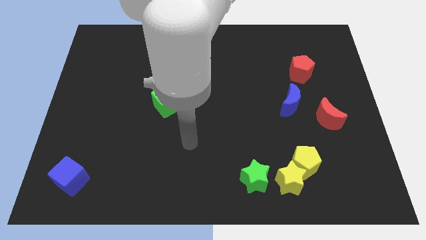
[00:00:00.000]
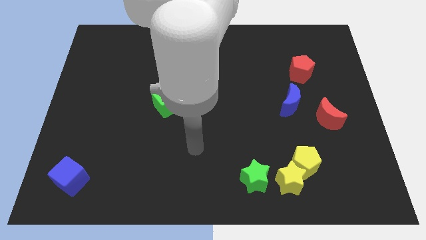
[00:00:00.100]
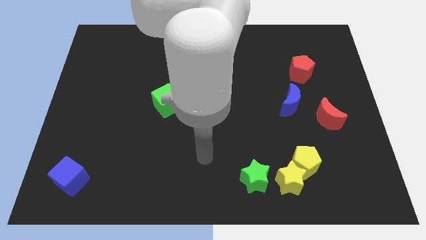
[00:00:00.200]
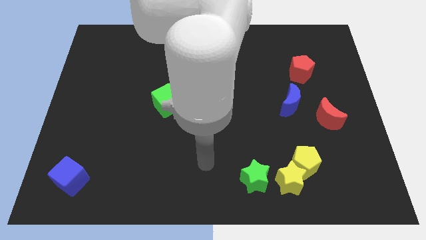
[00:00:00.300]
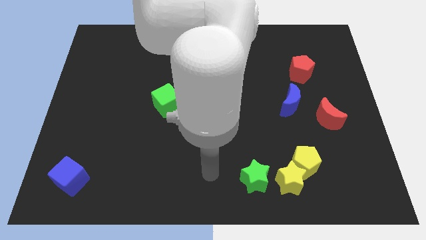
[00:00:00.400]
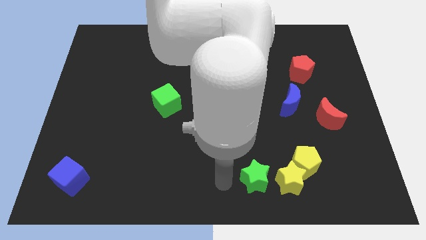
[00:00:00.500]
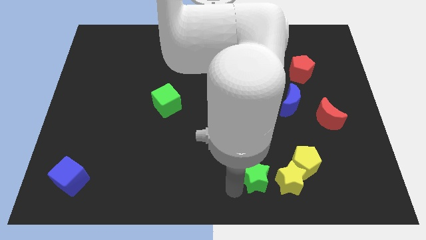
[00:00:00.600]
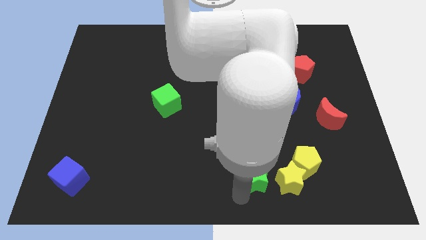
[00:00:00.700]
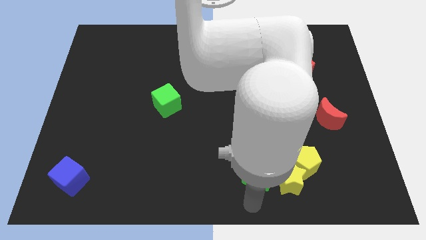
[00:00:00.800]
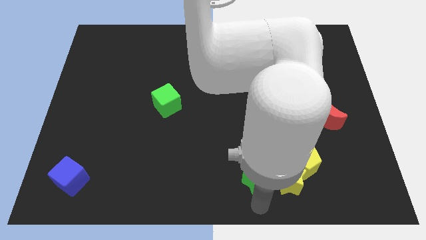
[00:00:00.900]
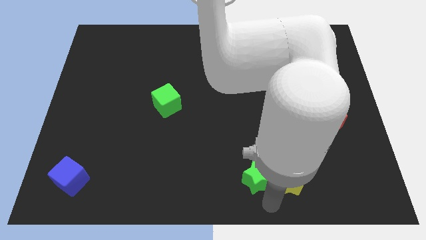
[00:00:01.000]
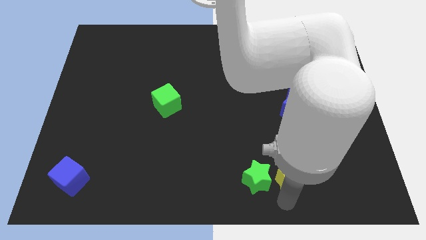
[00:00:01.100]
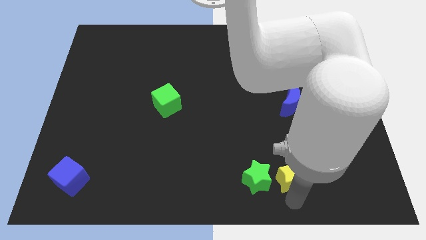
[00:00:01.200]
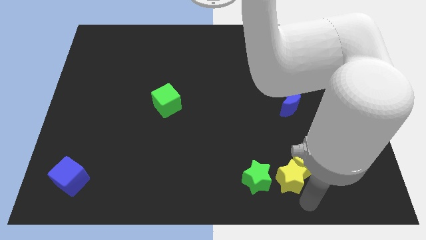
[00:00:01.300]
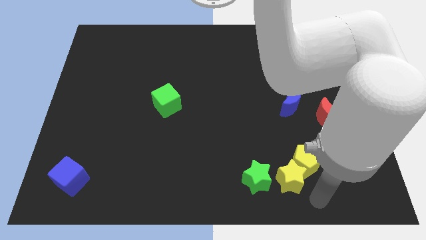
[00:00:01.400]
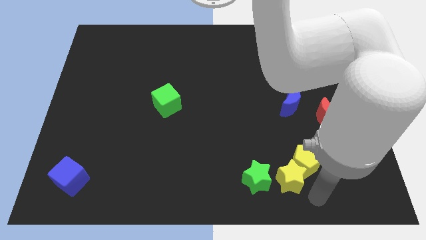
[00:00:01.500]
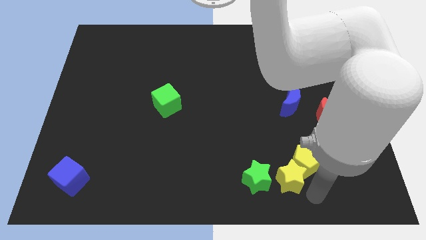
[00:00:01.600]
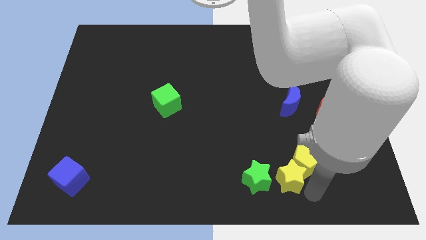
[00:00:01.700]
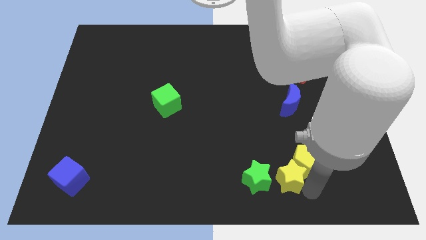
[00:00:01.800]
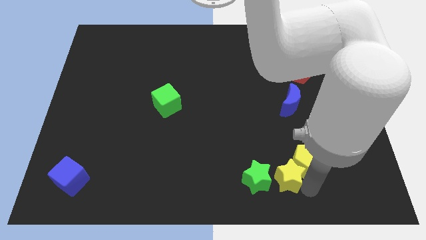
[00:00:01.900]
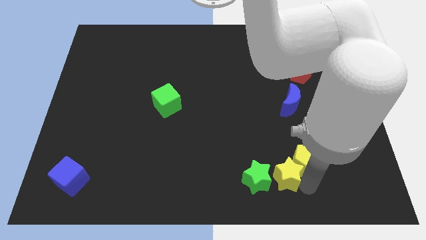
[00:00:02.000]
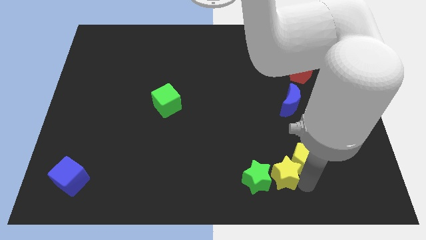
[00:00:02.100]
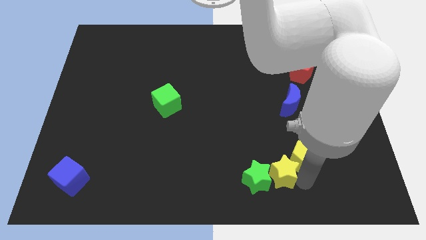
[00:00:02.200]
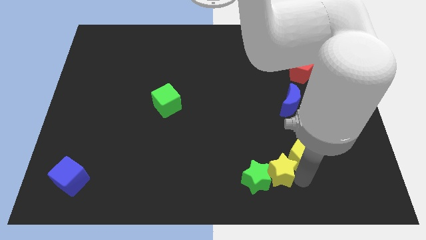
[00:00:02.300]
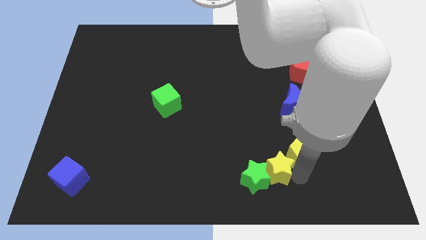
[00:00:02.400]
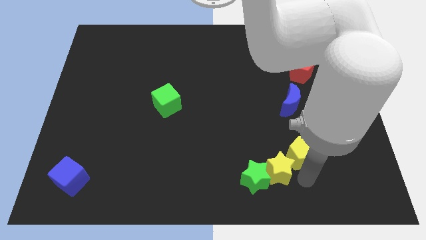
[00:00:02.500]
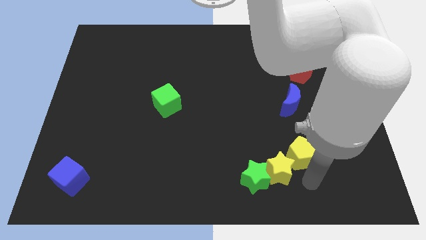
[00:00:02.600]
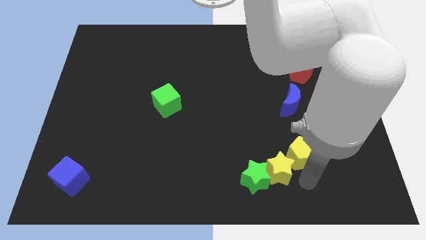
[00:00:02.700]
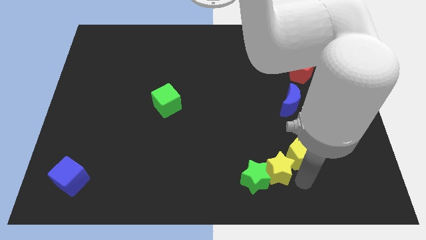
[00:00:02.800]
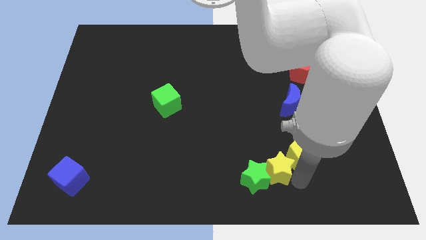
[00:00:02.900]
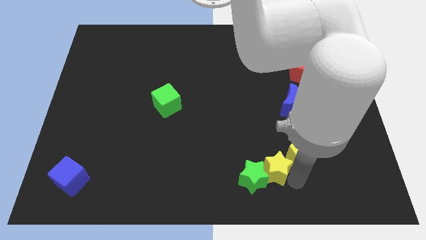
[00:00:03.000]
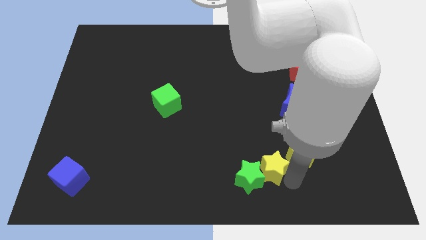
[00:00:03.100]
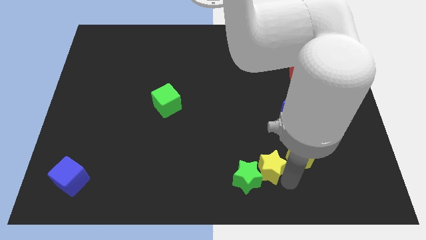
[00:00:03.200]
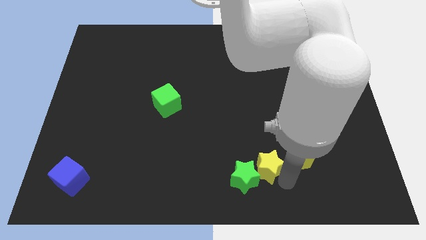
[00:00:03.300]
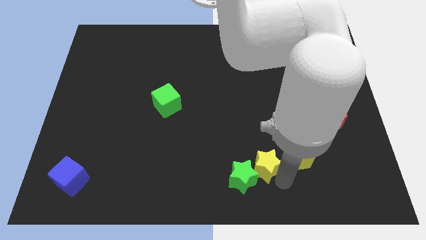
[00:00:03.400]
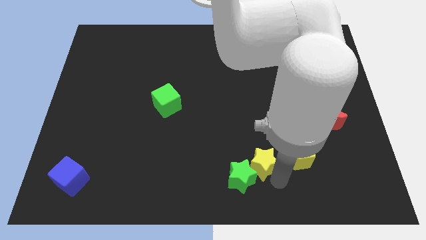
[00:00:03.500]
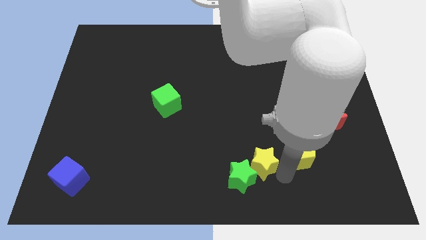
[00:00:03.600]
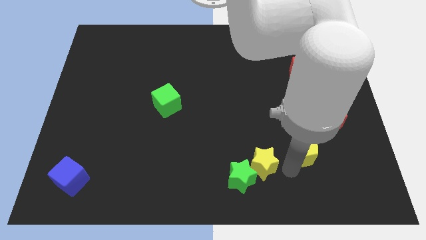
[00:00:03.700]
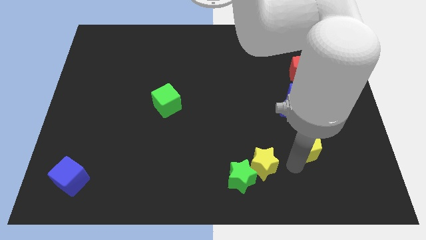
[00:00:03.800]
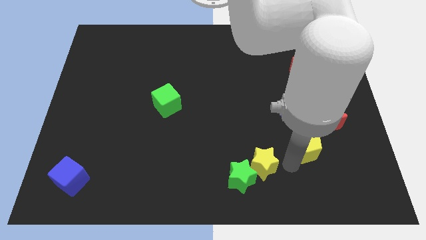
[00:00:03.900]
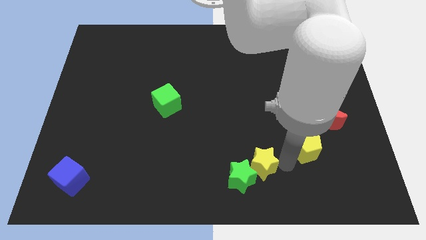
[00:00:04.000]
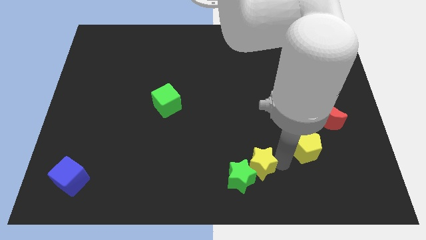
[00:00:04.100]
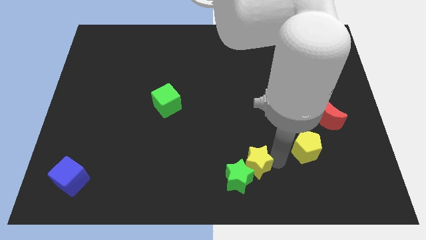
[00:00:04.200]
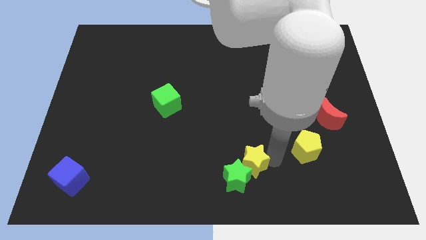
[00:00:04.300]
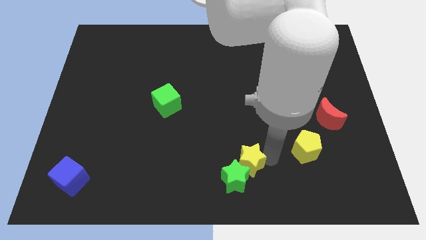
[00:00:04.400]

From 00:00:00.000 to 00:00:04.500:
move the yellow star left somewhat

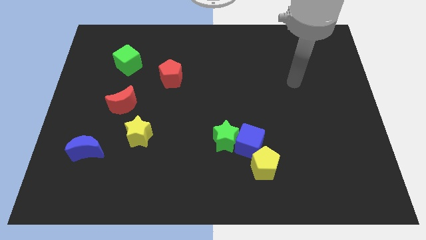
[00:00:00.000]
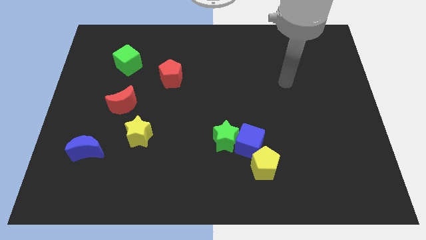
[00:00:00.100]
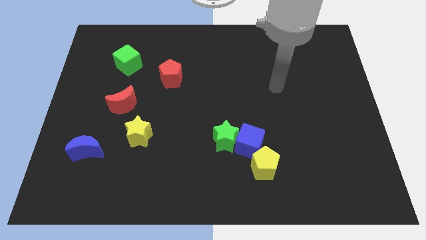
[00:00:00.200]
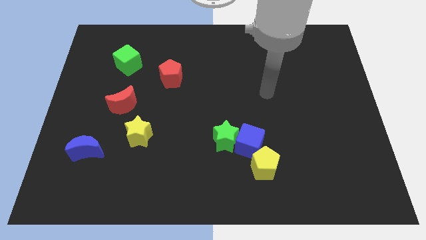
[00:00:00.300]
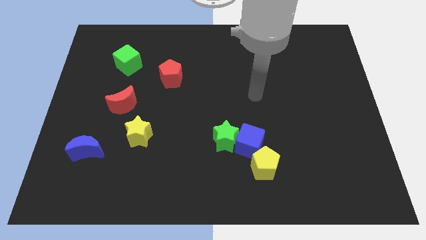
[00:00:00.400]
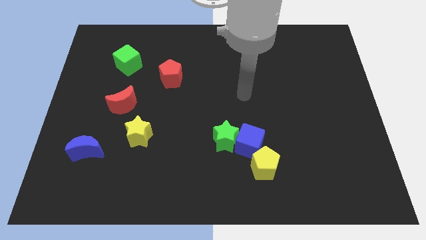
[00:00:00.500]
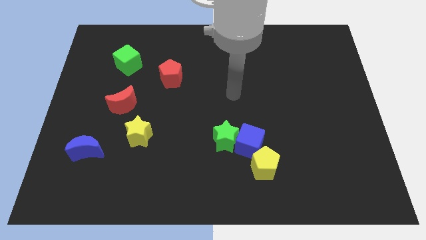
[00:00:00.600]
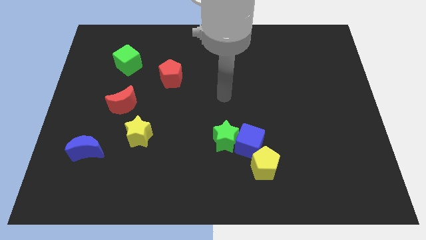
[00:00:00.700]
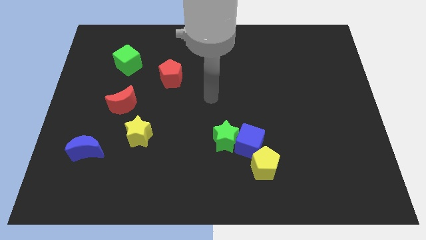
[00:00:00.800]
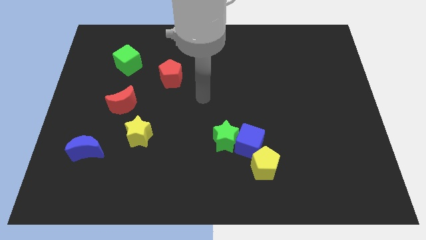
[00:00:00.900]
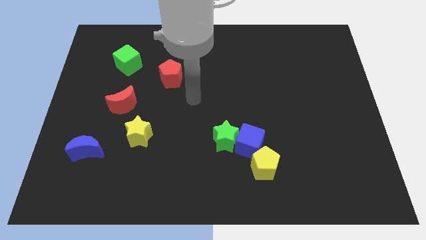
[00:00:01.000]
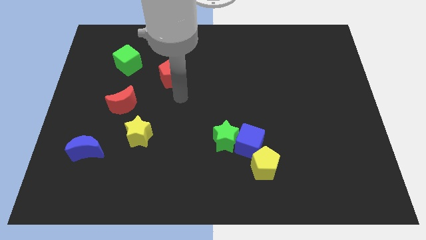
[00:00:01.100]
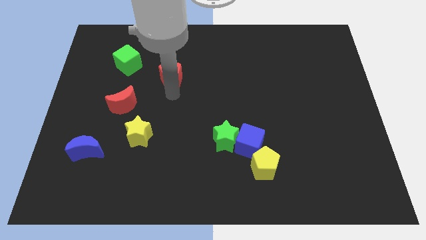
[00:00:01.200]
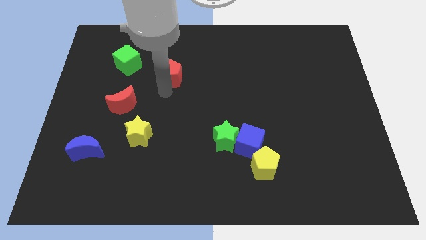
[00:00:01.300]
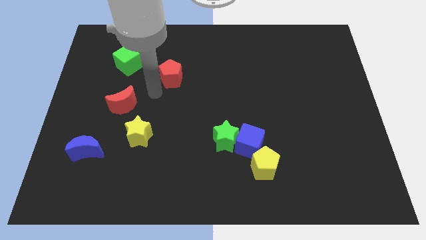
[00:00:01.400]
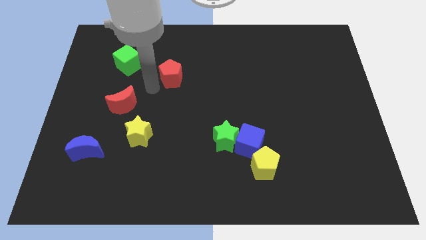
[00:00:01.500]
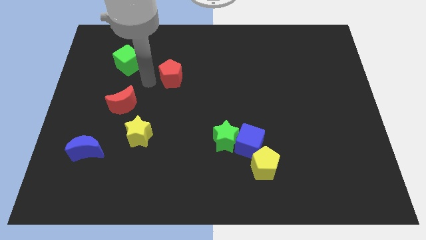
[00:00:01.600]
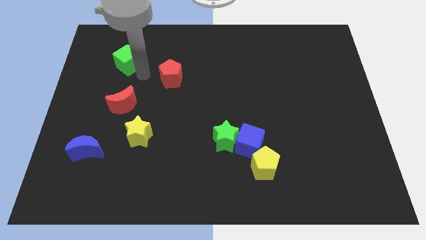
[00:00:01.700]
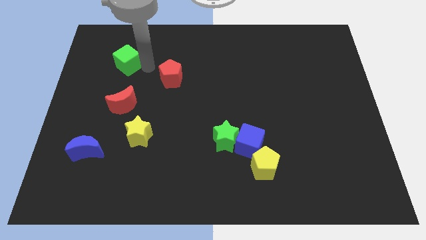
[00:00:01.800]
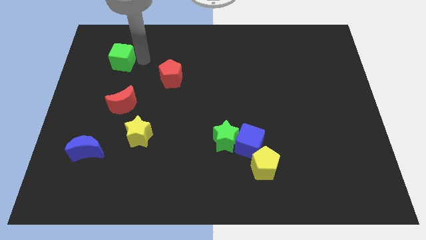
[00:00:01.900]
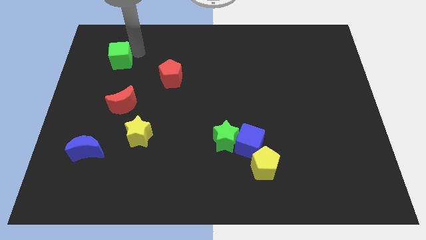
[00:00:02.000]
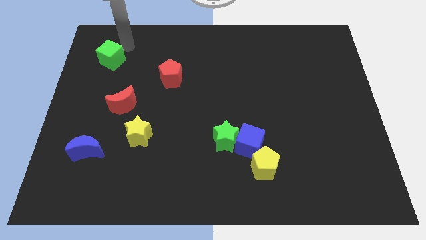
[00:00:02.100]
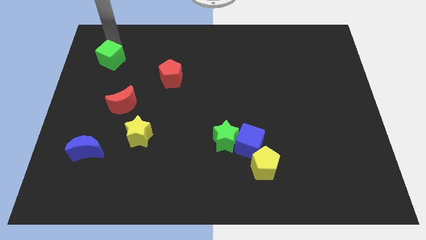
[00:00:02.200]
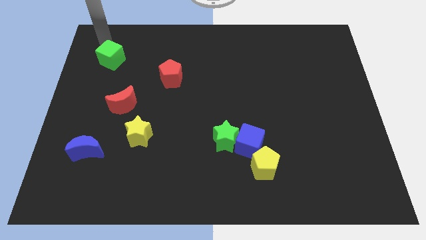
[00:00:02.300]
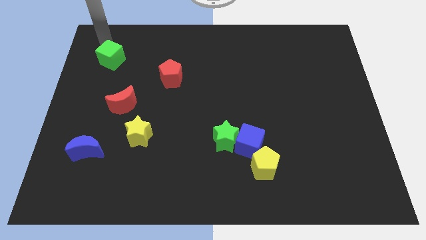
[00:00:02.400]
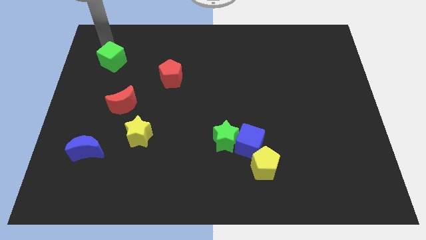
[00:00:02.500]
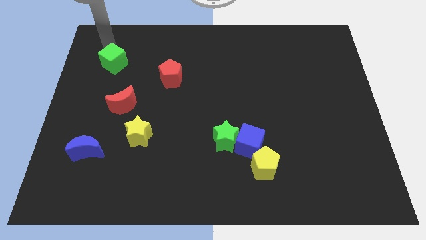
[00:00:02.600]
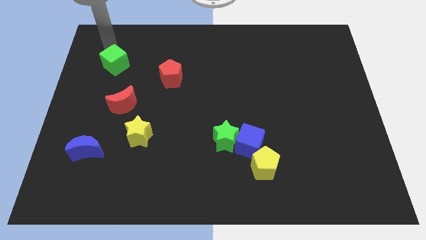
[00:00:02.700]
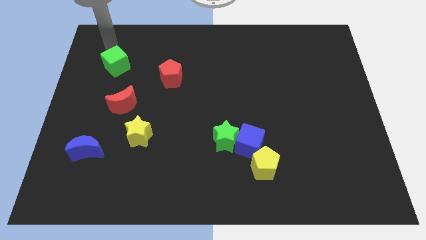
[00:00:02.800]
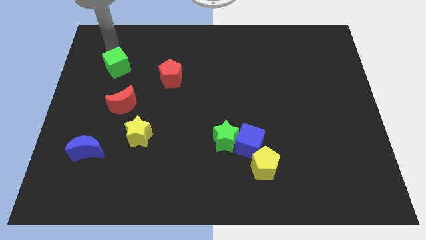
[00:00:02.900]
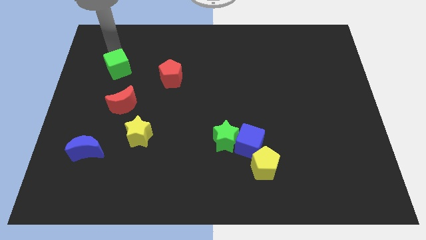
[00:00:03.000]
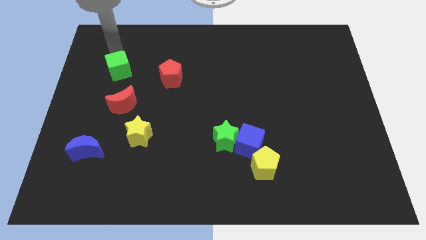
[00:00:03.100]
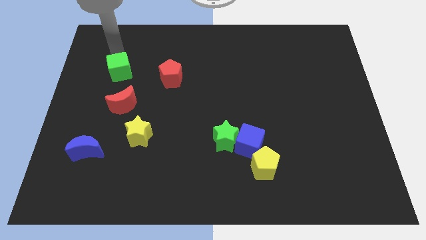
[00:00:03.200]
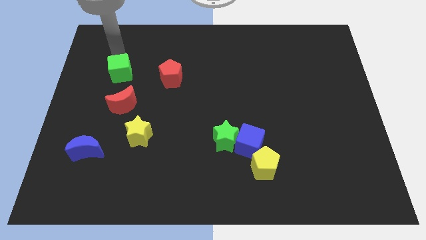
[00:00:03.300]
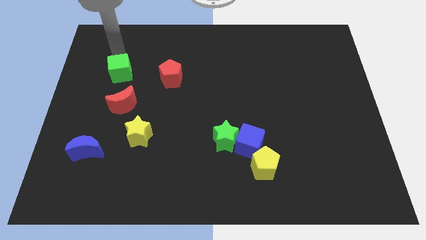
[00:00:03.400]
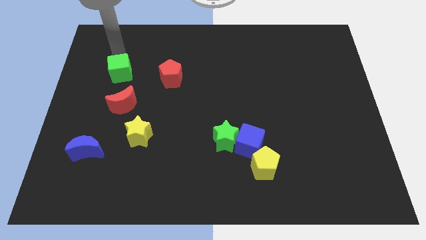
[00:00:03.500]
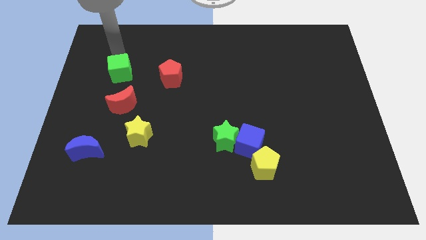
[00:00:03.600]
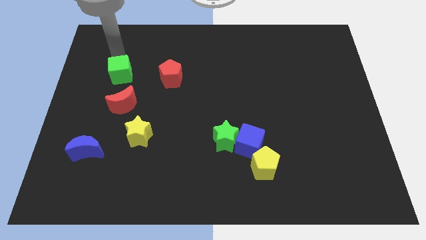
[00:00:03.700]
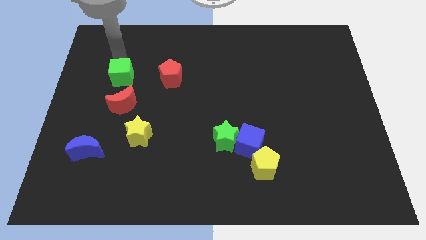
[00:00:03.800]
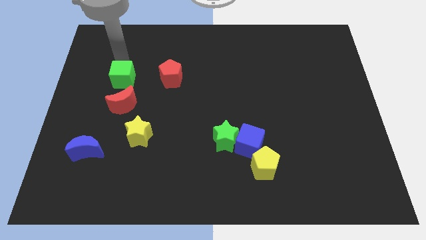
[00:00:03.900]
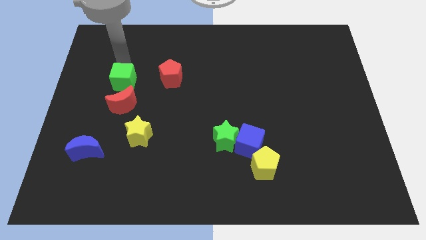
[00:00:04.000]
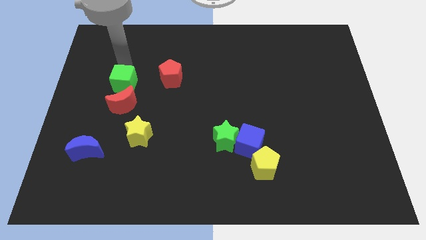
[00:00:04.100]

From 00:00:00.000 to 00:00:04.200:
slightly slide the green cube downwards
